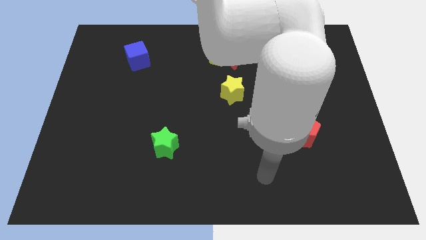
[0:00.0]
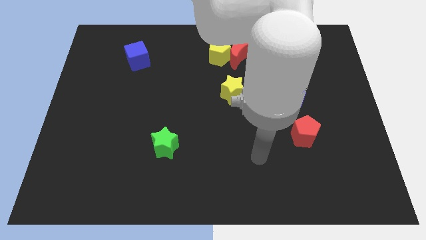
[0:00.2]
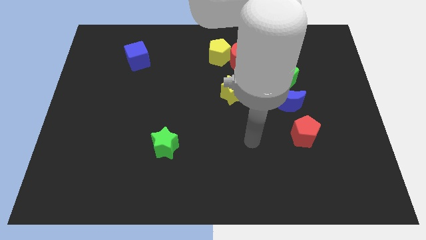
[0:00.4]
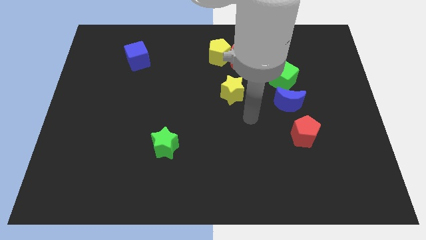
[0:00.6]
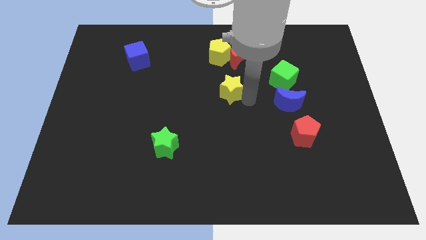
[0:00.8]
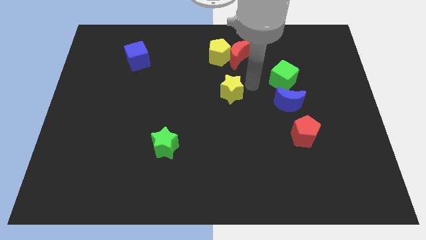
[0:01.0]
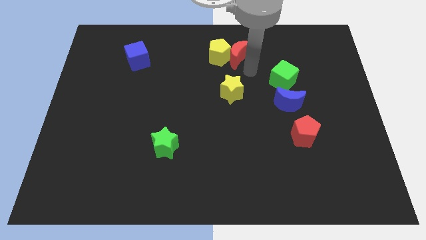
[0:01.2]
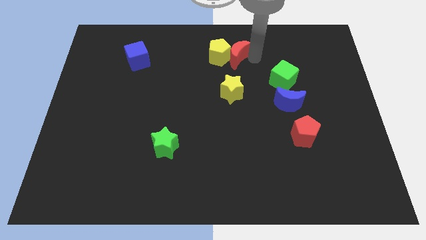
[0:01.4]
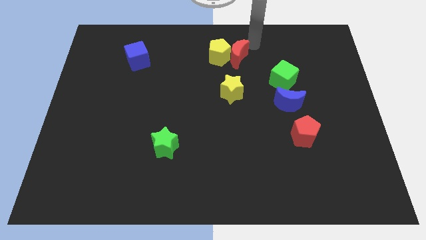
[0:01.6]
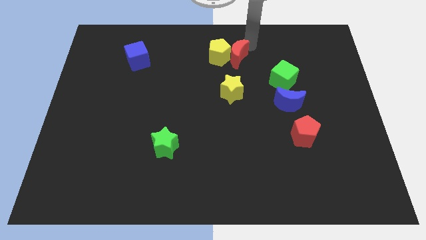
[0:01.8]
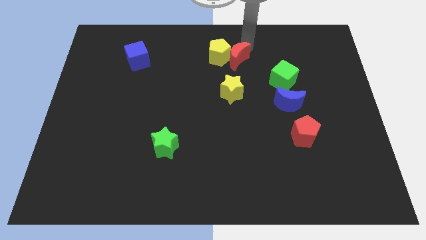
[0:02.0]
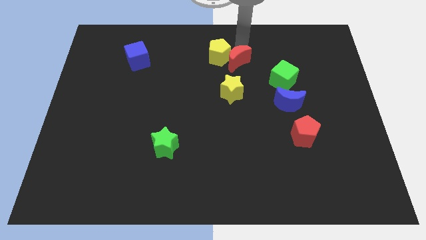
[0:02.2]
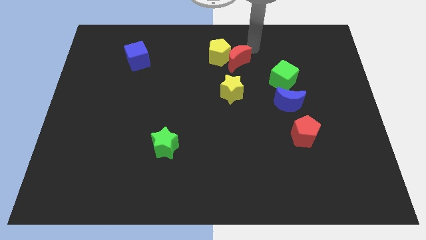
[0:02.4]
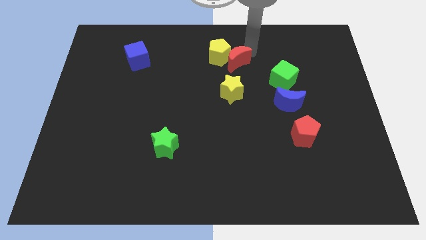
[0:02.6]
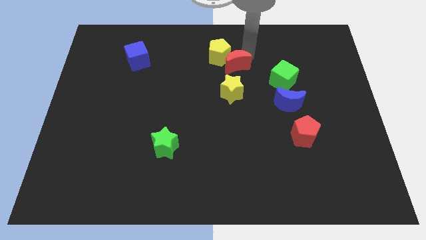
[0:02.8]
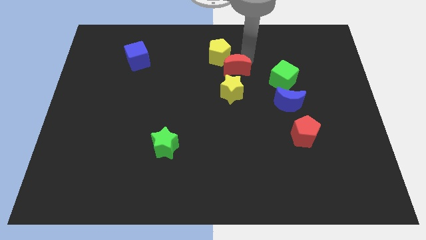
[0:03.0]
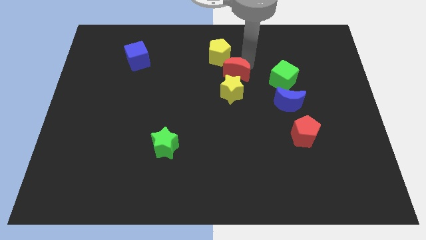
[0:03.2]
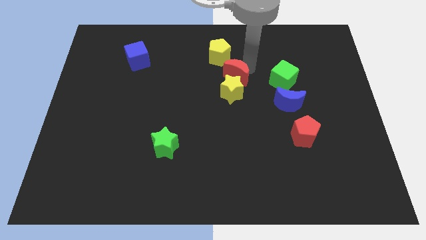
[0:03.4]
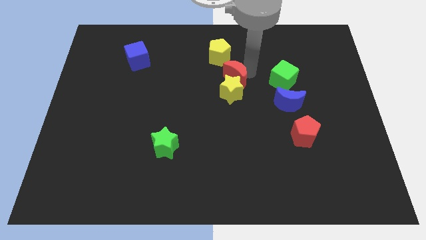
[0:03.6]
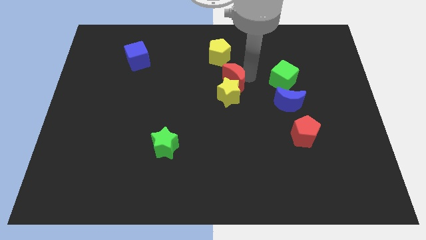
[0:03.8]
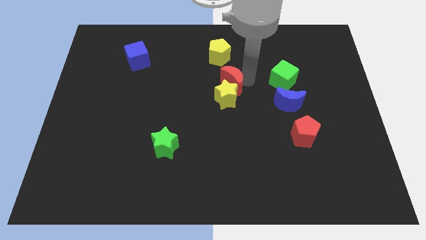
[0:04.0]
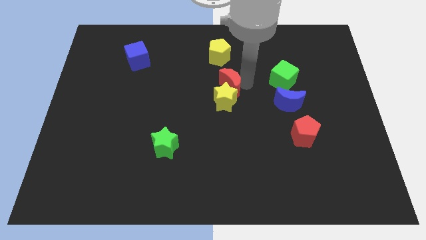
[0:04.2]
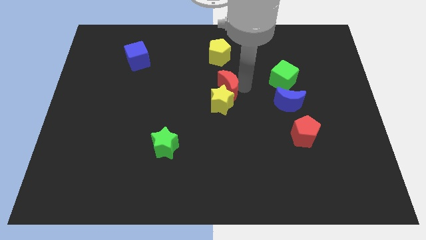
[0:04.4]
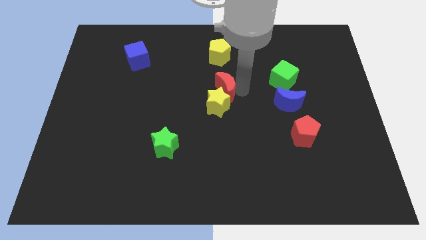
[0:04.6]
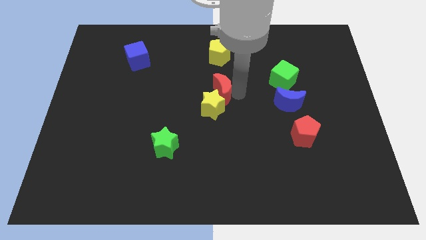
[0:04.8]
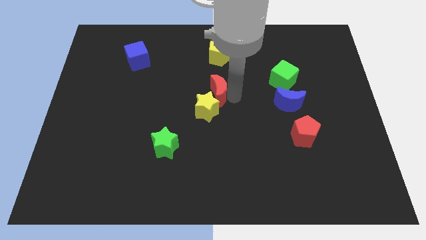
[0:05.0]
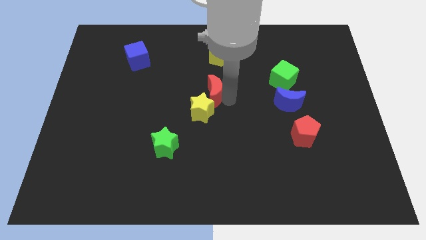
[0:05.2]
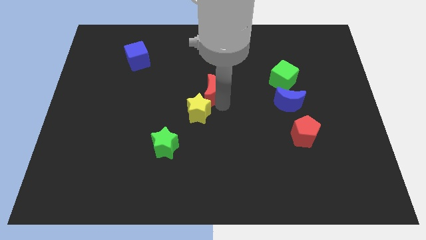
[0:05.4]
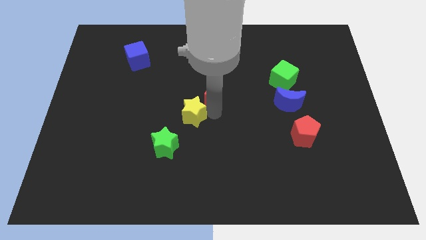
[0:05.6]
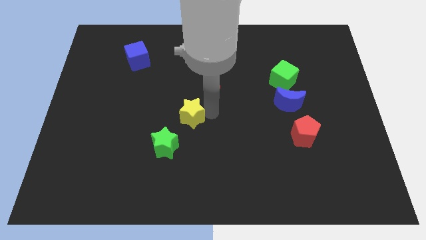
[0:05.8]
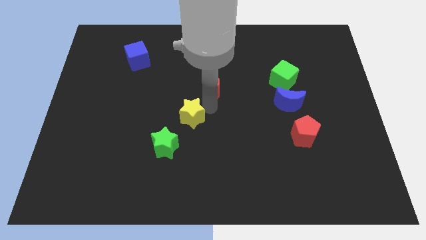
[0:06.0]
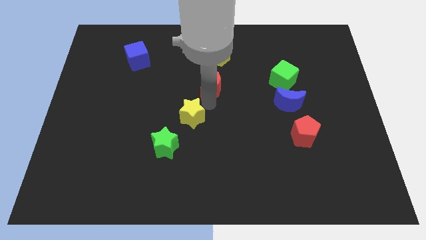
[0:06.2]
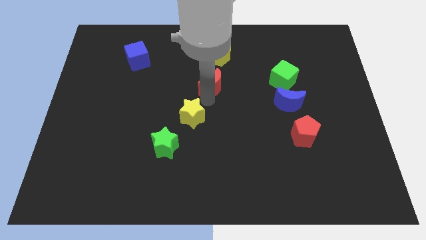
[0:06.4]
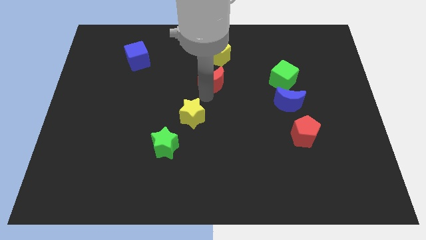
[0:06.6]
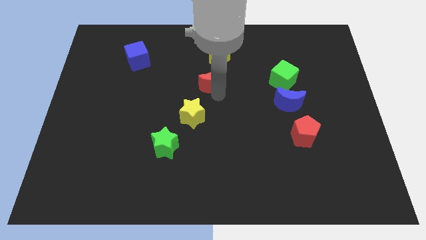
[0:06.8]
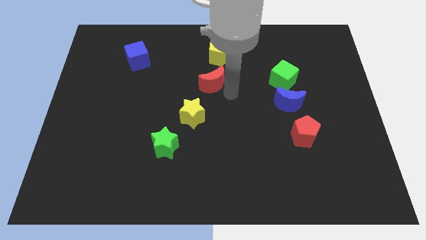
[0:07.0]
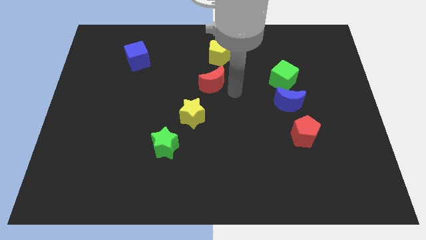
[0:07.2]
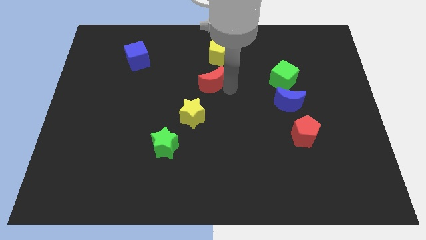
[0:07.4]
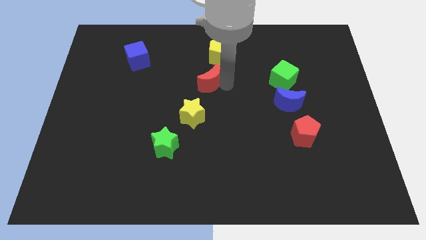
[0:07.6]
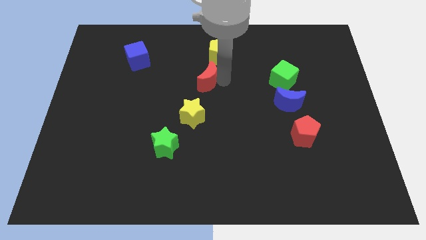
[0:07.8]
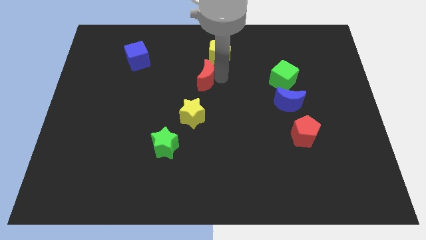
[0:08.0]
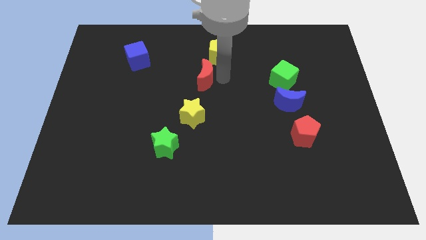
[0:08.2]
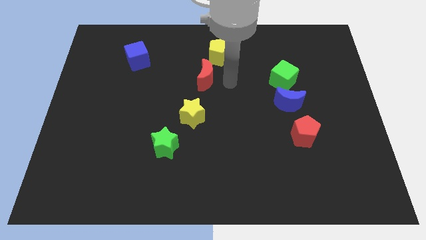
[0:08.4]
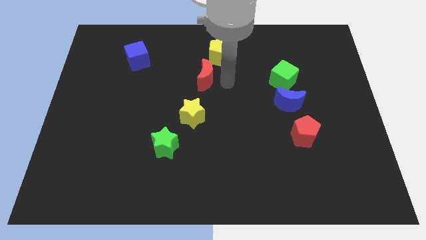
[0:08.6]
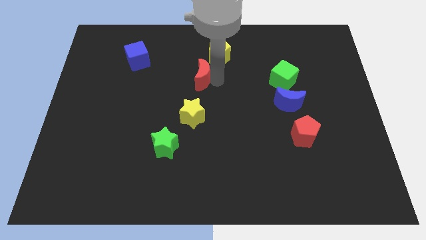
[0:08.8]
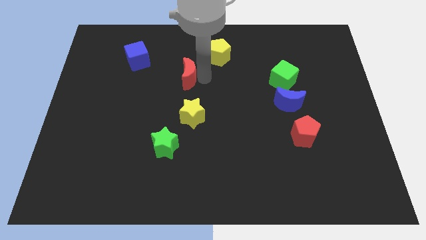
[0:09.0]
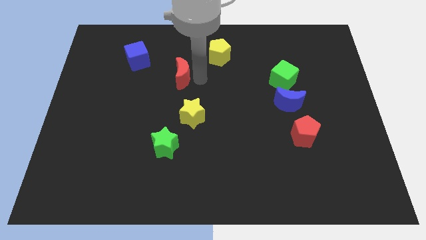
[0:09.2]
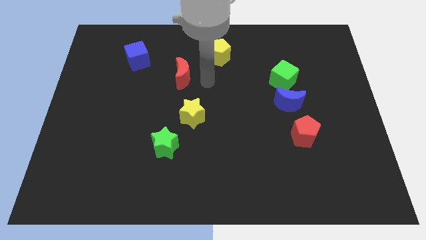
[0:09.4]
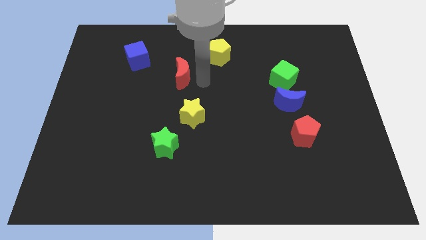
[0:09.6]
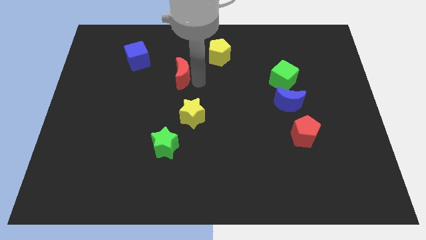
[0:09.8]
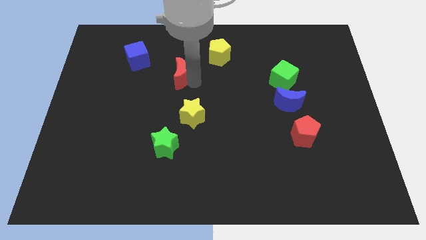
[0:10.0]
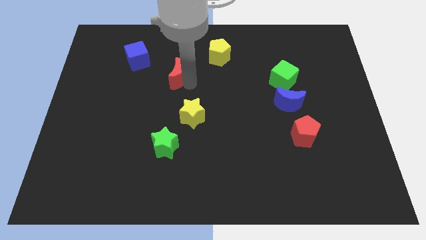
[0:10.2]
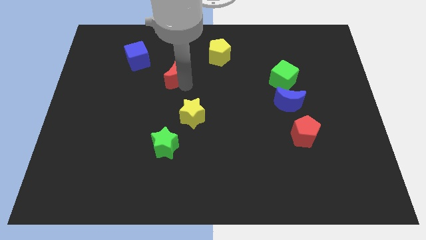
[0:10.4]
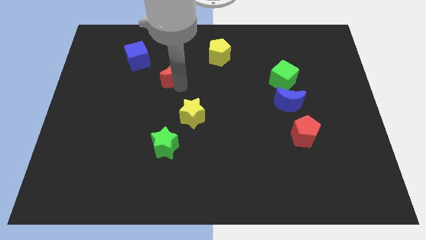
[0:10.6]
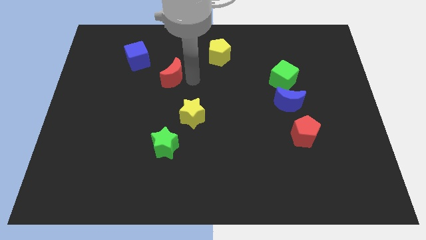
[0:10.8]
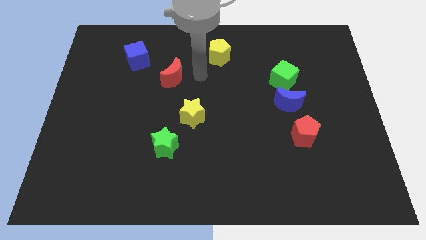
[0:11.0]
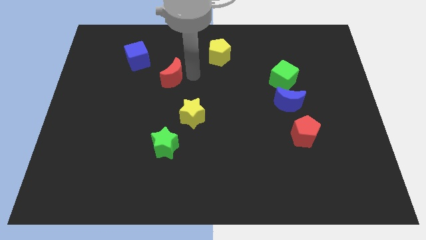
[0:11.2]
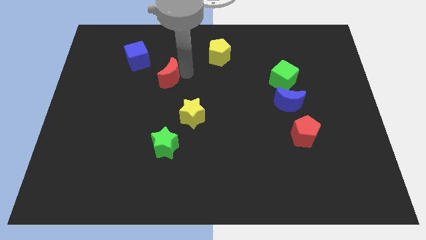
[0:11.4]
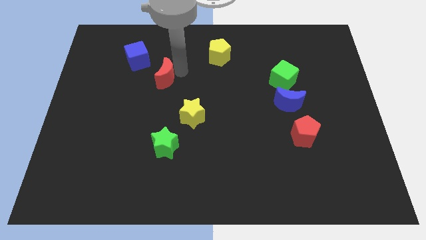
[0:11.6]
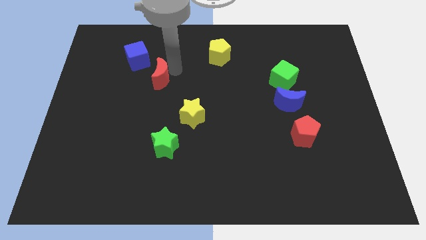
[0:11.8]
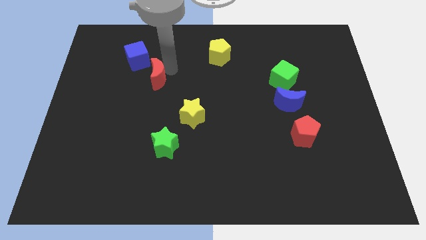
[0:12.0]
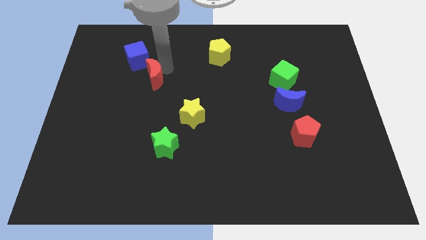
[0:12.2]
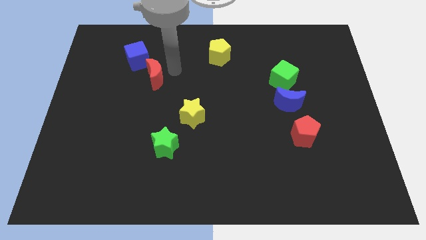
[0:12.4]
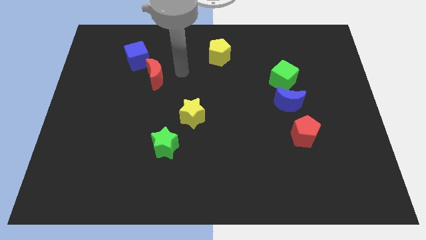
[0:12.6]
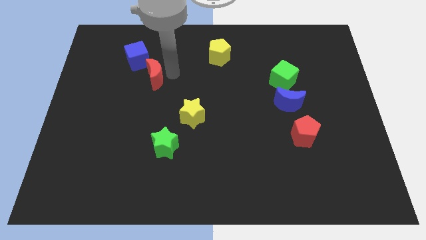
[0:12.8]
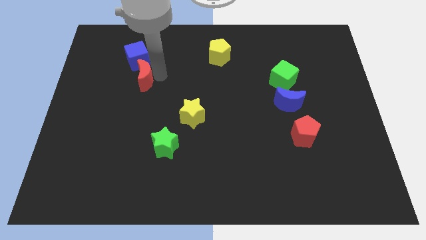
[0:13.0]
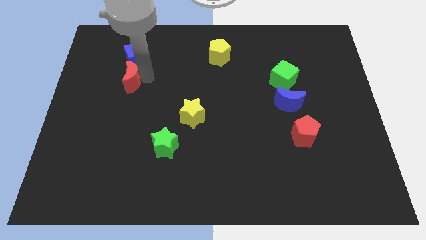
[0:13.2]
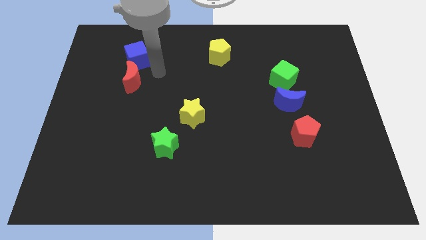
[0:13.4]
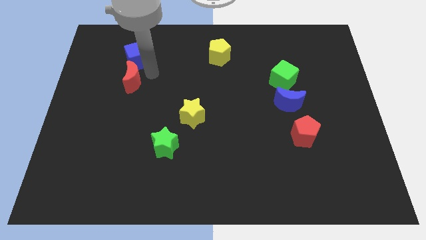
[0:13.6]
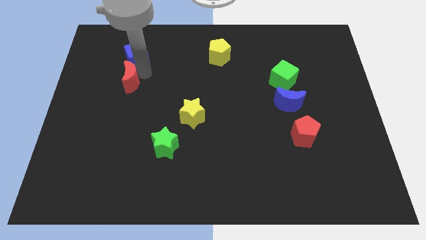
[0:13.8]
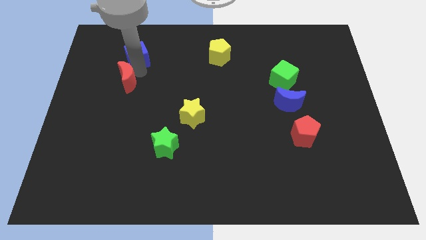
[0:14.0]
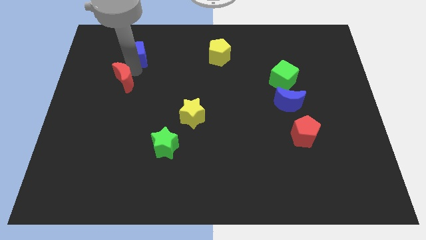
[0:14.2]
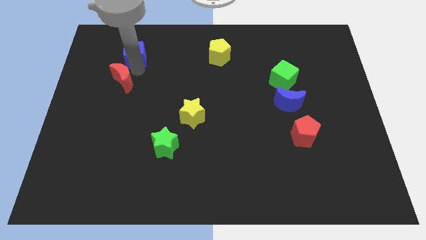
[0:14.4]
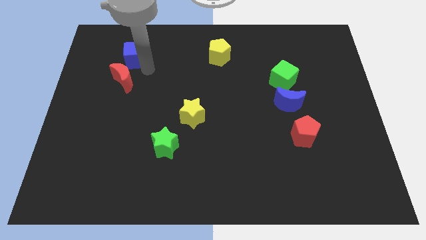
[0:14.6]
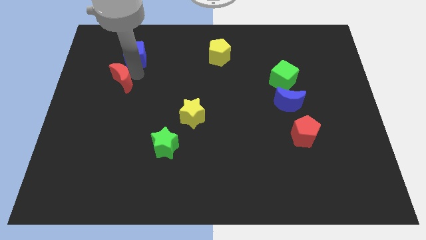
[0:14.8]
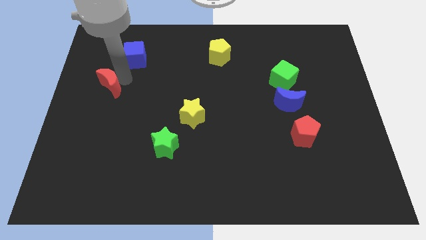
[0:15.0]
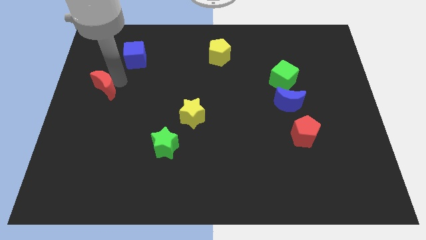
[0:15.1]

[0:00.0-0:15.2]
move the red moon to the left side of the board
